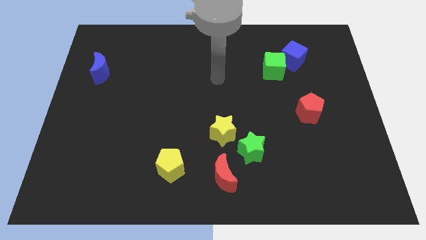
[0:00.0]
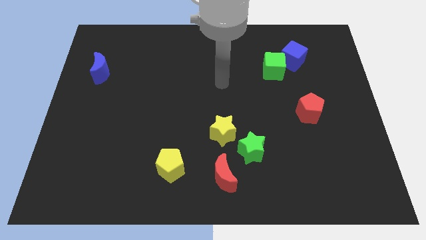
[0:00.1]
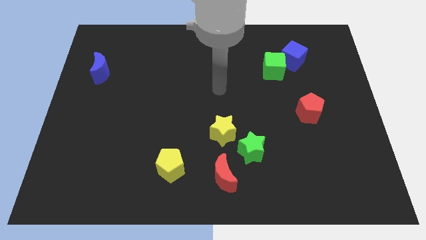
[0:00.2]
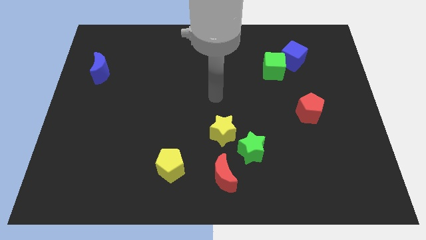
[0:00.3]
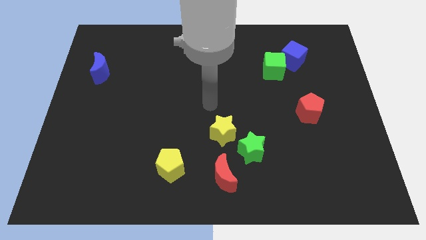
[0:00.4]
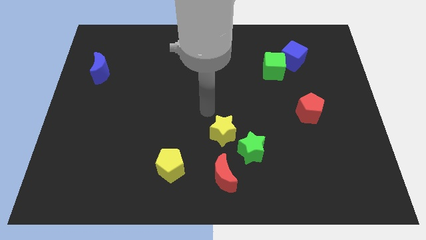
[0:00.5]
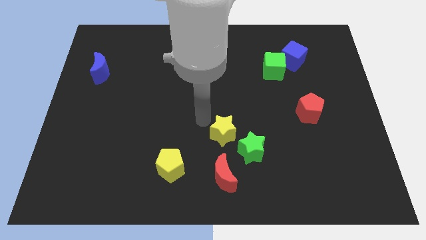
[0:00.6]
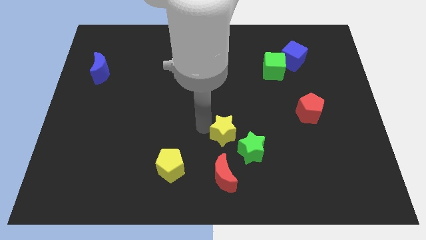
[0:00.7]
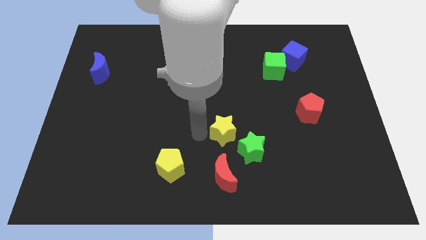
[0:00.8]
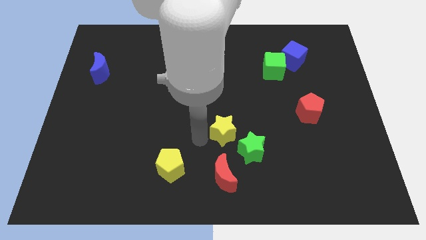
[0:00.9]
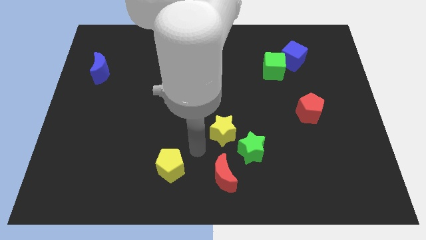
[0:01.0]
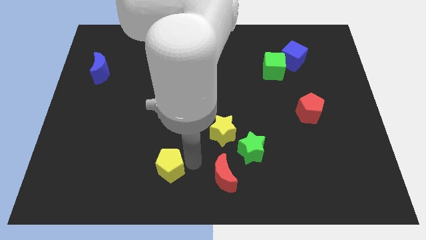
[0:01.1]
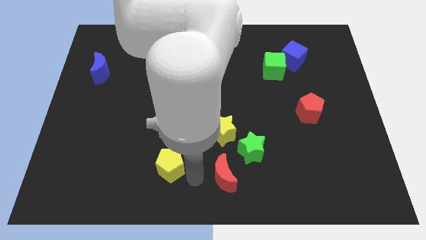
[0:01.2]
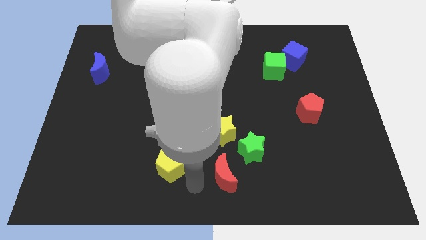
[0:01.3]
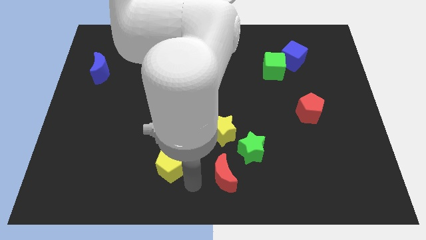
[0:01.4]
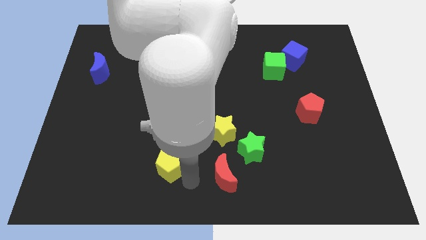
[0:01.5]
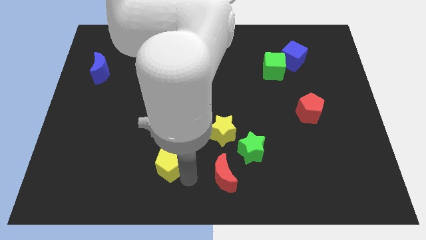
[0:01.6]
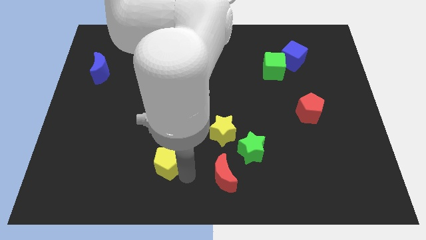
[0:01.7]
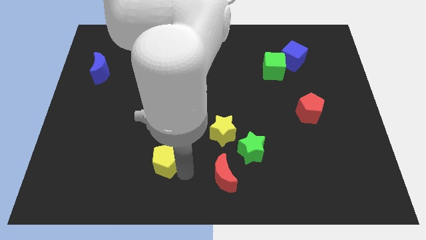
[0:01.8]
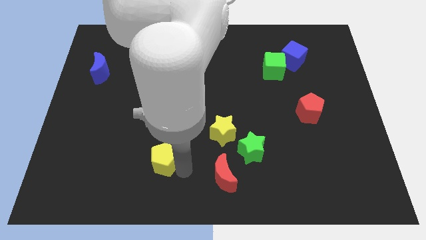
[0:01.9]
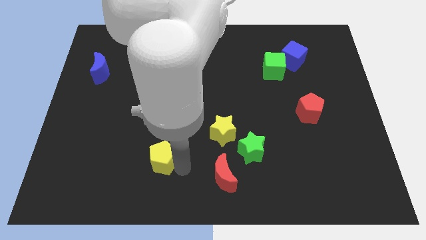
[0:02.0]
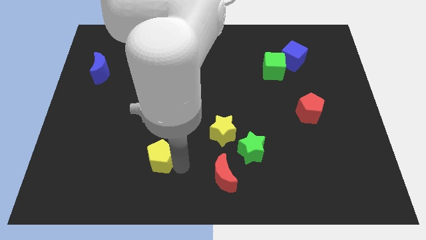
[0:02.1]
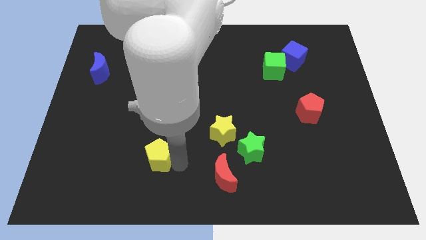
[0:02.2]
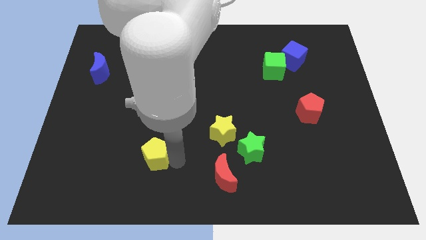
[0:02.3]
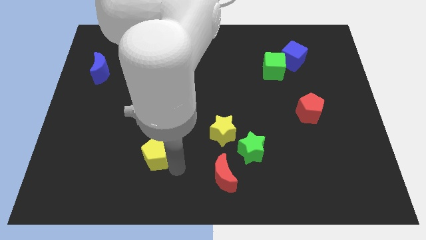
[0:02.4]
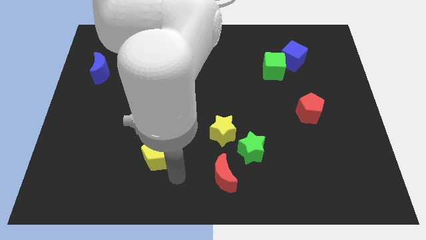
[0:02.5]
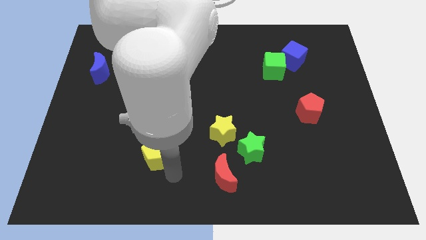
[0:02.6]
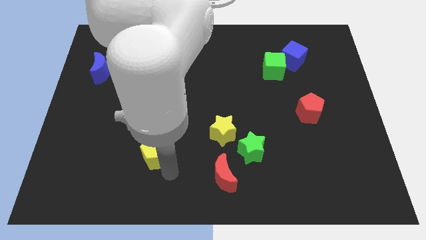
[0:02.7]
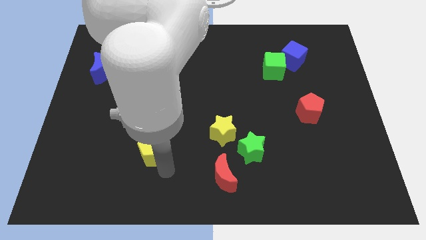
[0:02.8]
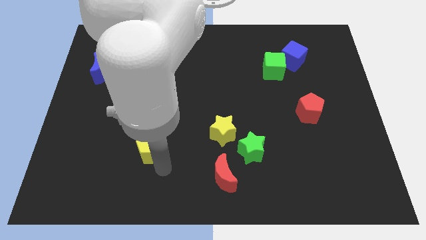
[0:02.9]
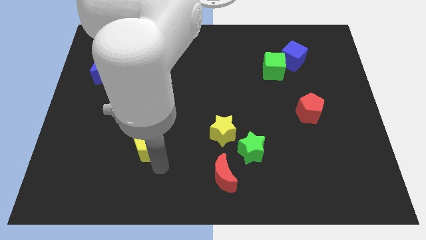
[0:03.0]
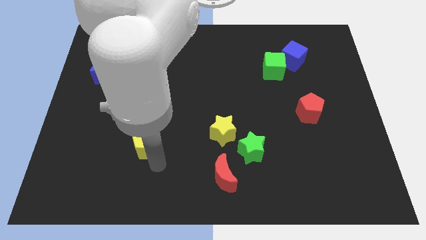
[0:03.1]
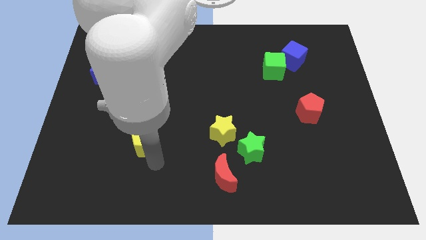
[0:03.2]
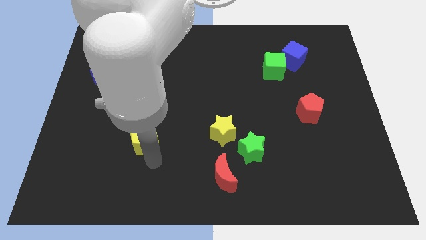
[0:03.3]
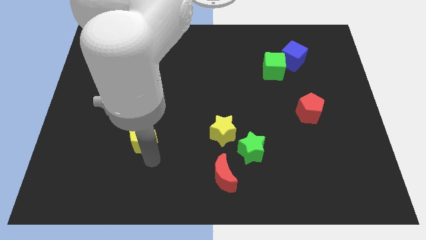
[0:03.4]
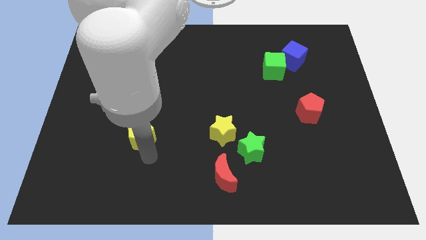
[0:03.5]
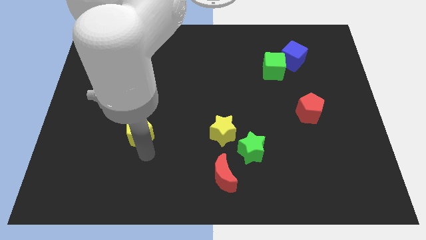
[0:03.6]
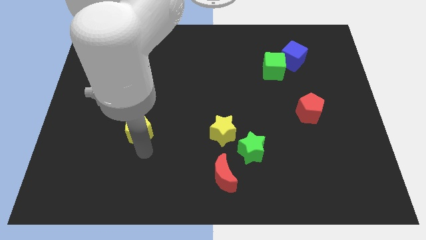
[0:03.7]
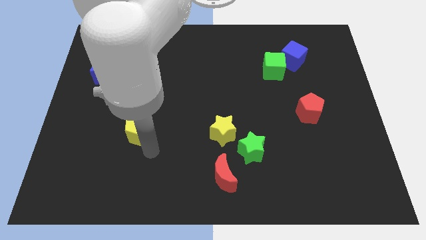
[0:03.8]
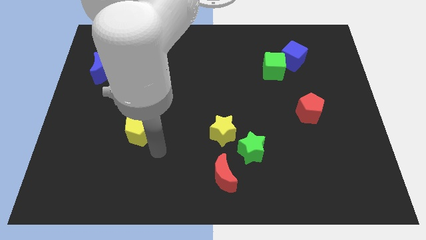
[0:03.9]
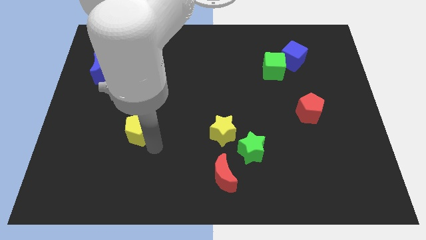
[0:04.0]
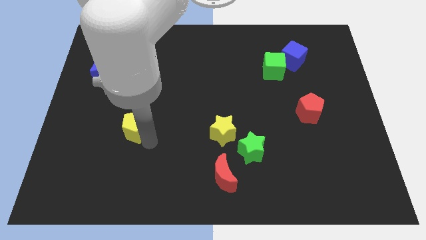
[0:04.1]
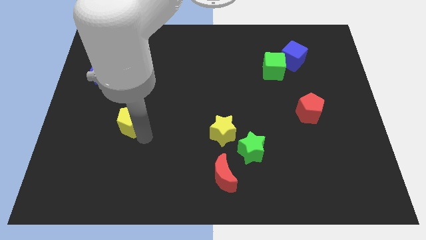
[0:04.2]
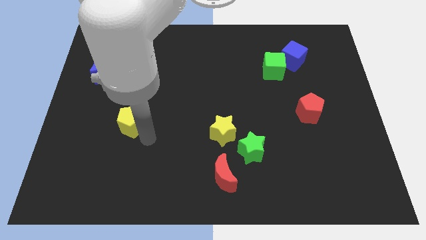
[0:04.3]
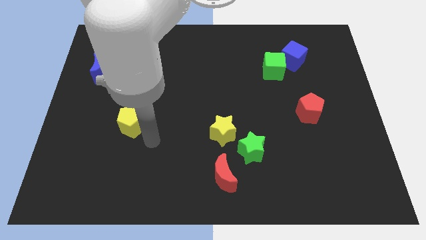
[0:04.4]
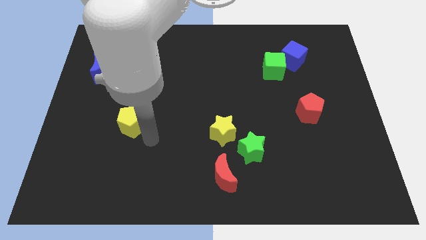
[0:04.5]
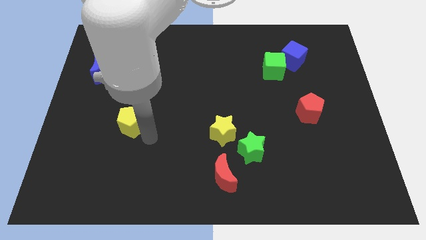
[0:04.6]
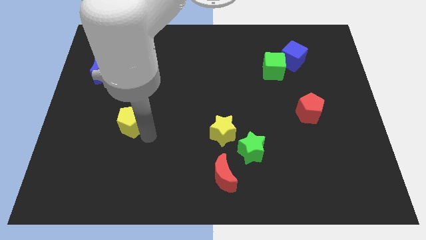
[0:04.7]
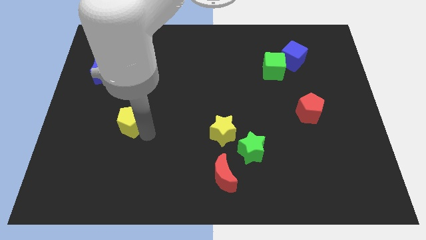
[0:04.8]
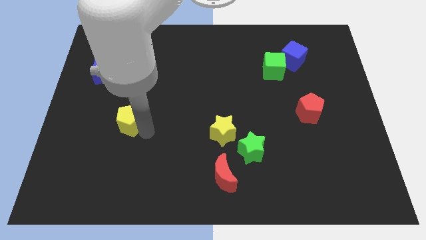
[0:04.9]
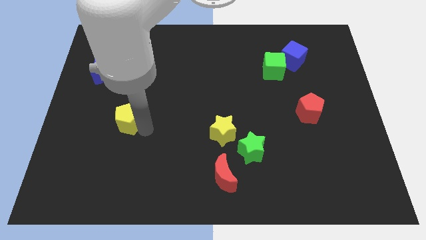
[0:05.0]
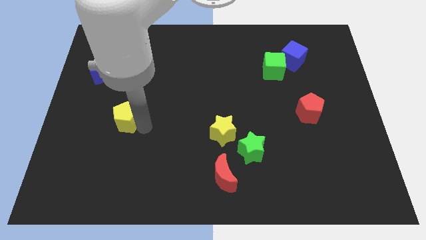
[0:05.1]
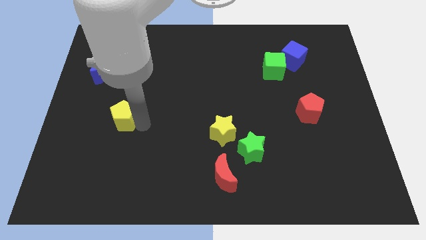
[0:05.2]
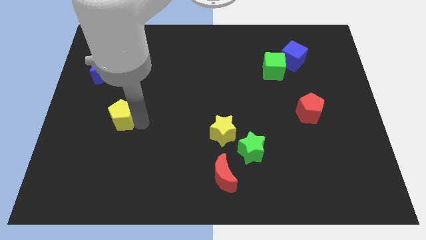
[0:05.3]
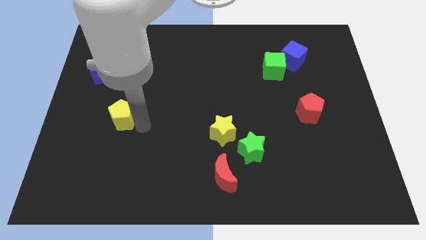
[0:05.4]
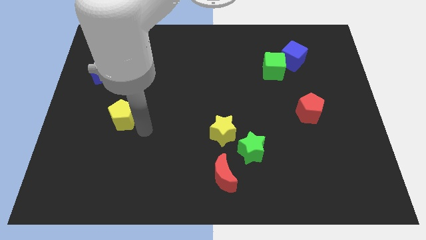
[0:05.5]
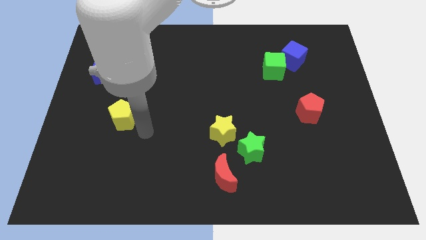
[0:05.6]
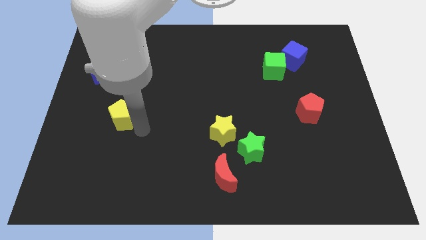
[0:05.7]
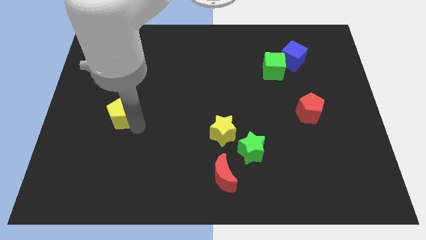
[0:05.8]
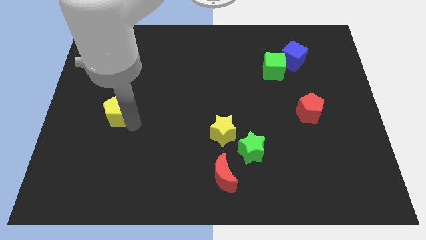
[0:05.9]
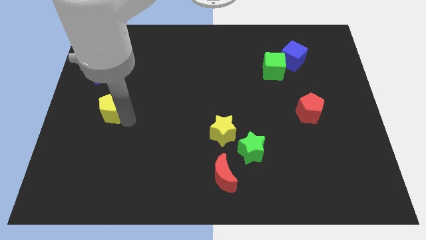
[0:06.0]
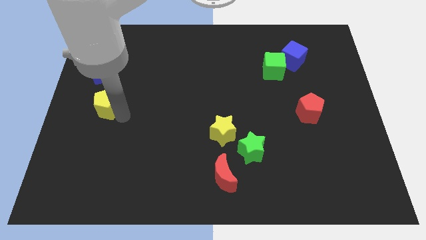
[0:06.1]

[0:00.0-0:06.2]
move the yellow pentagon to the bottom of the blue moon
